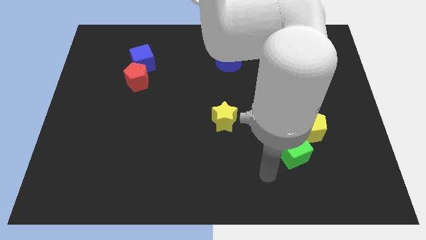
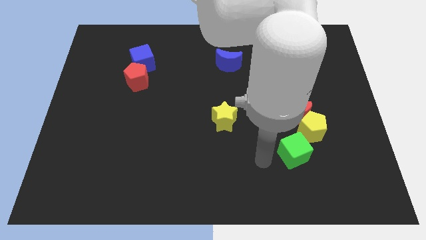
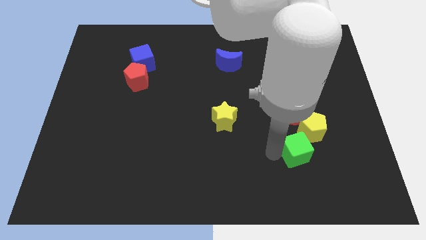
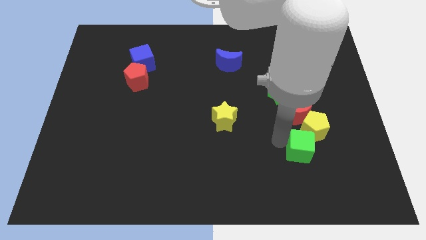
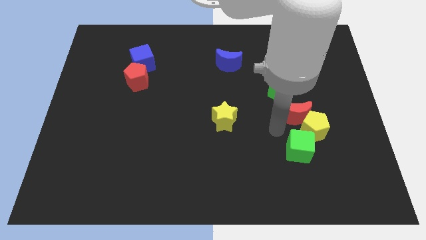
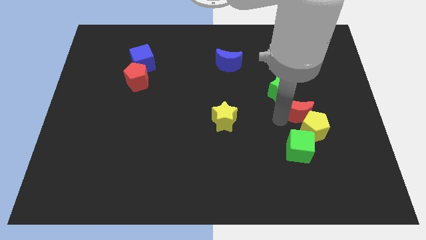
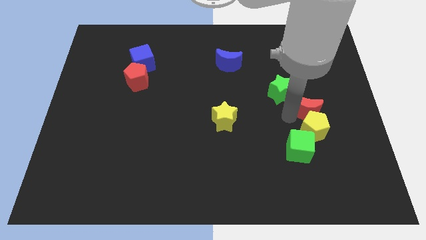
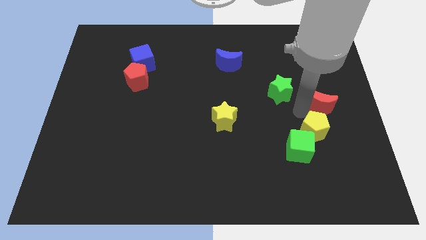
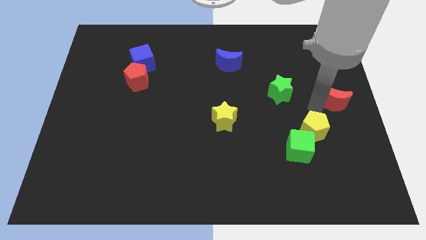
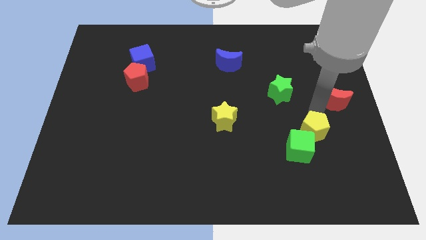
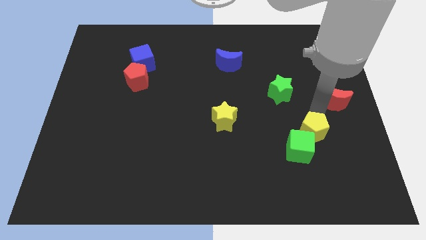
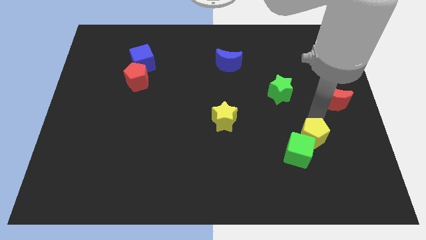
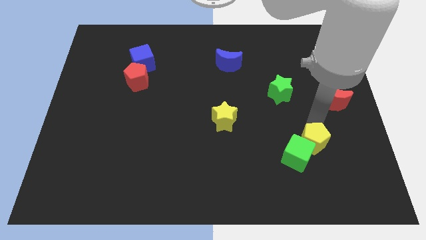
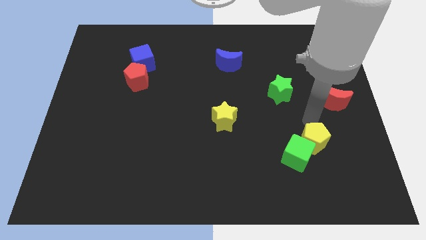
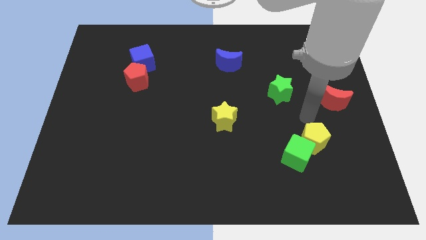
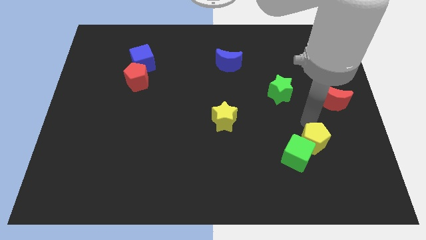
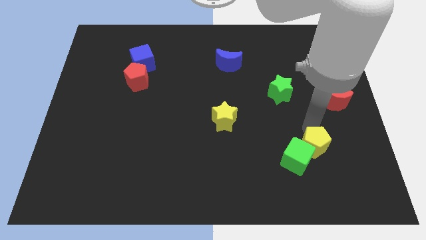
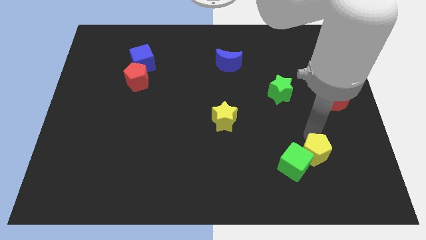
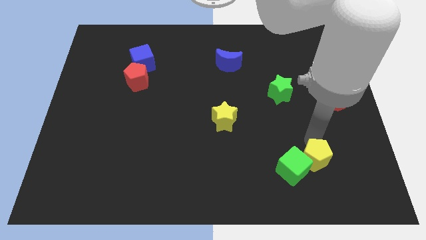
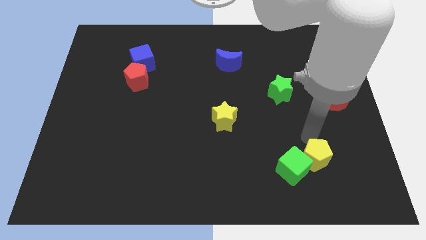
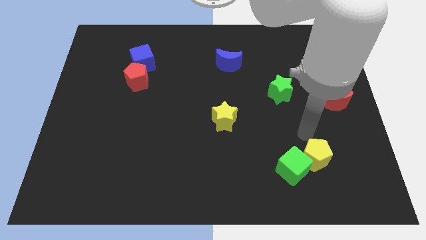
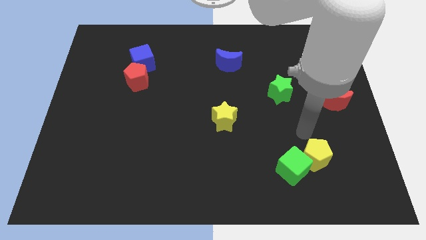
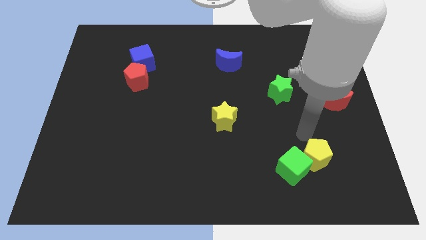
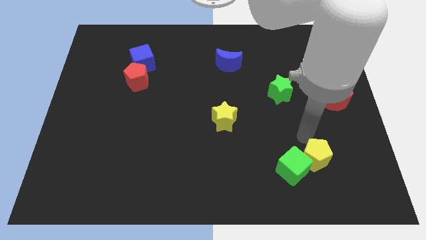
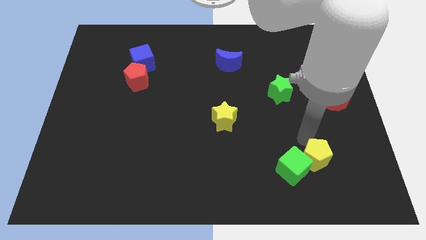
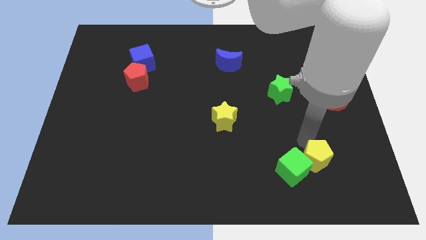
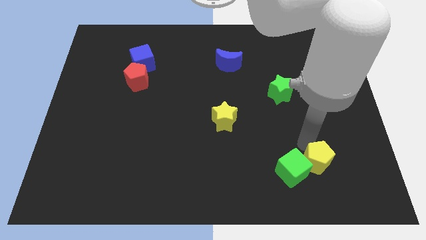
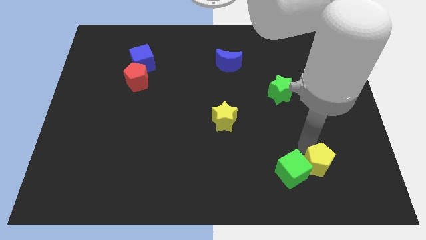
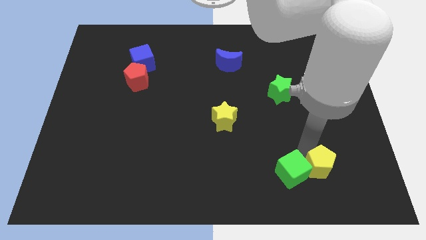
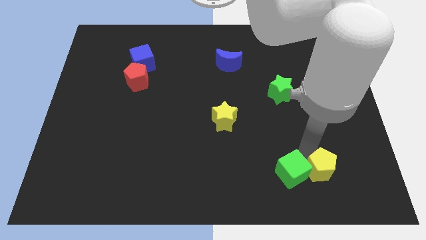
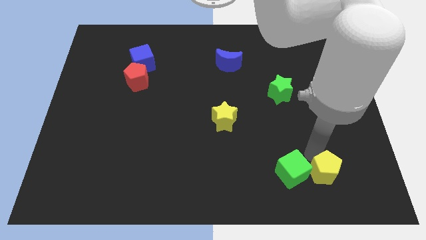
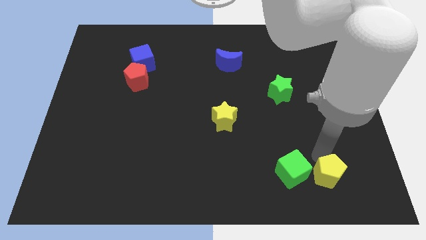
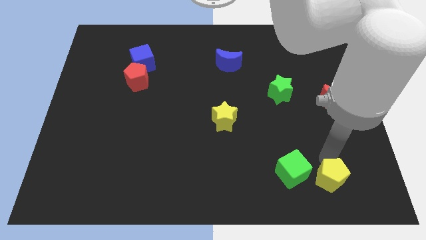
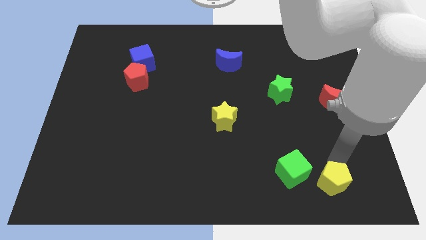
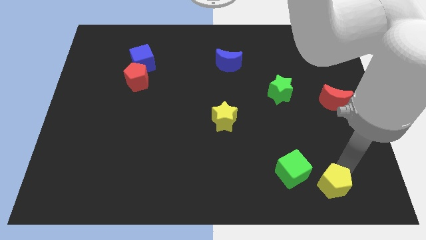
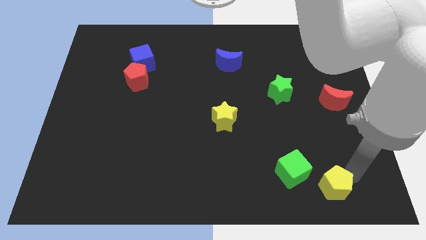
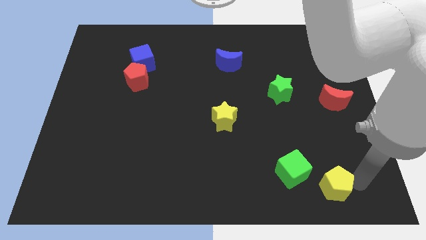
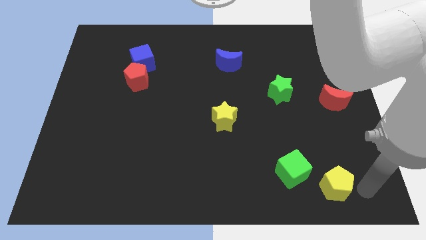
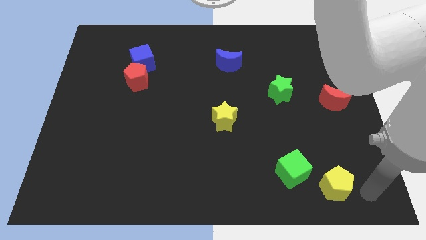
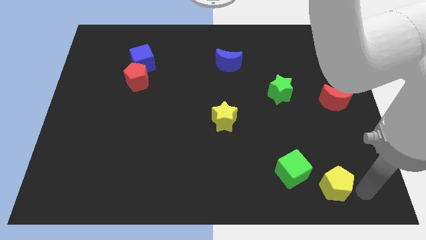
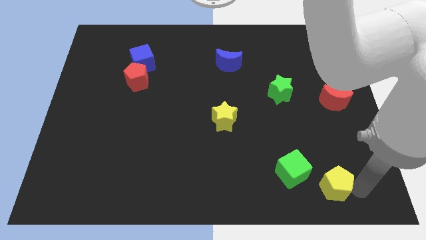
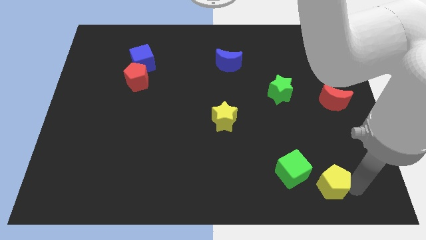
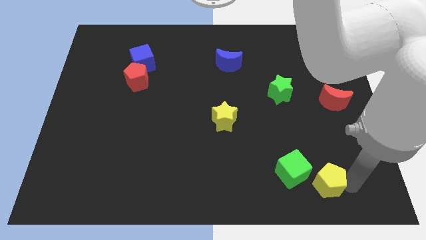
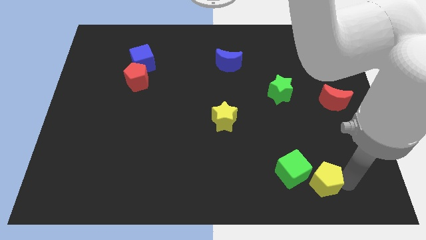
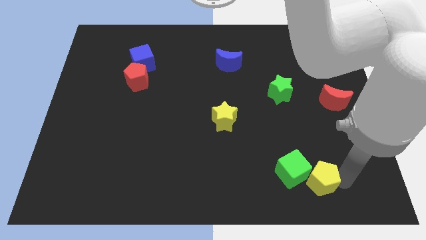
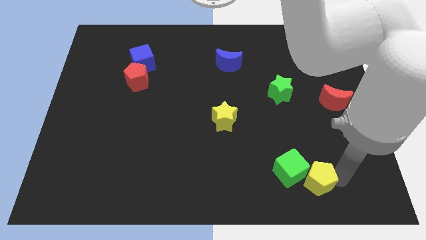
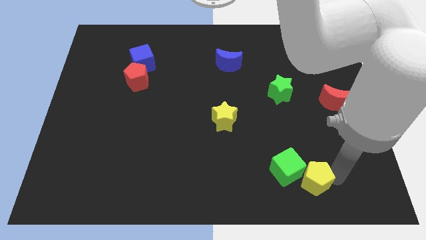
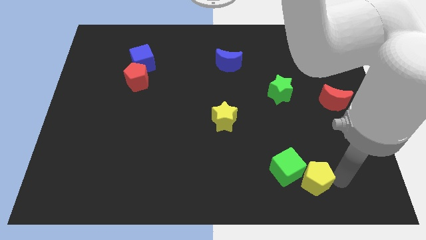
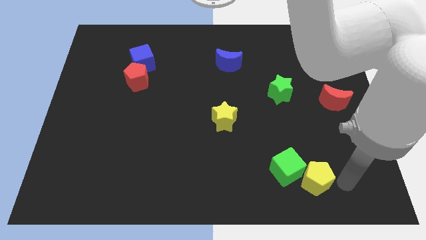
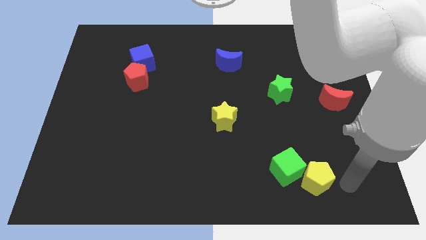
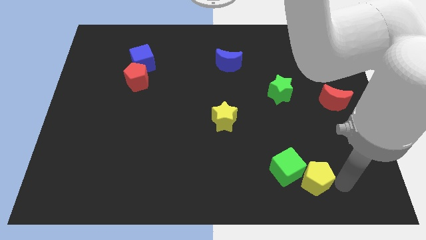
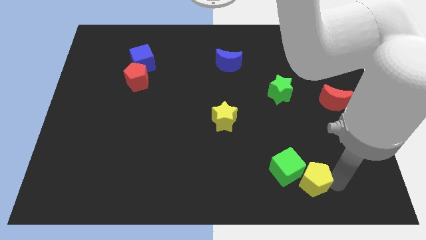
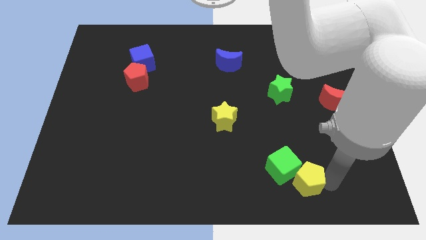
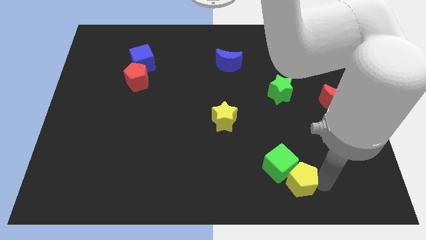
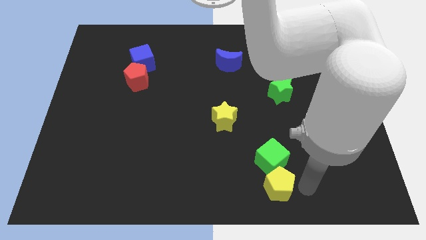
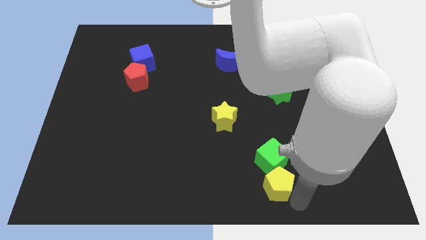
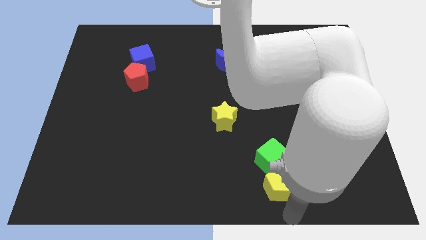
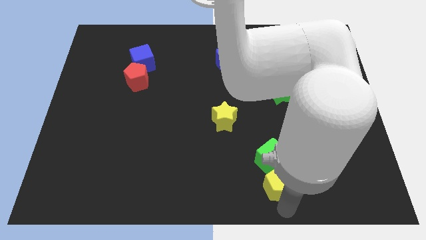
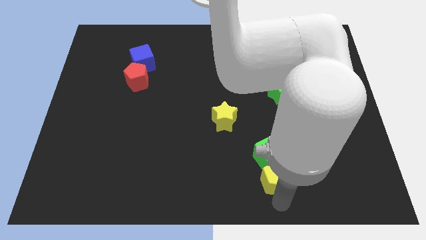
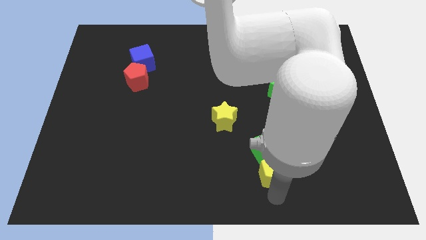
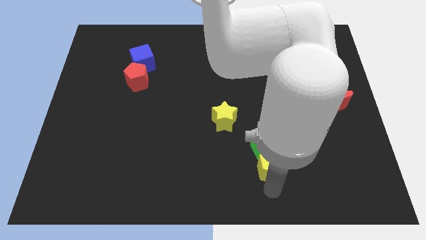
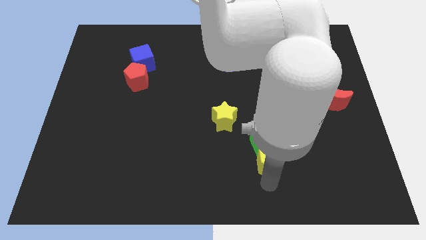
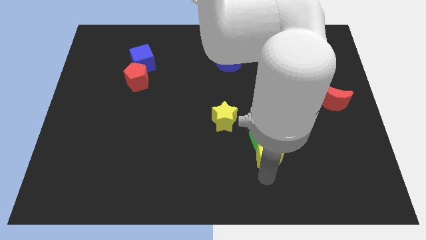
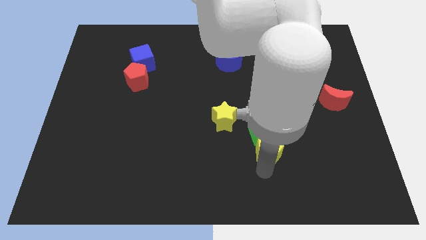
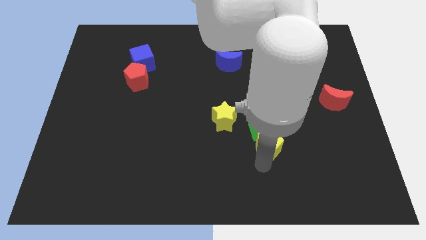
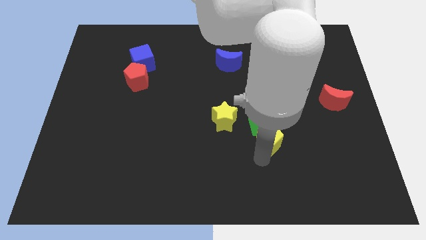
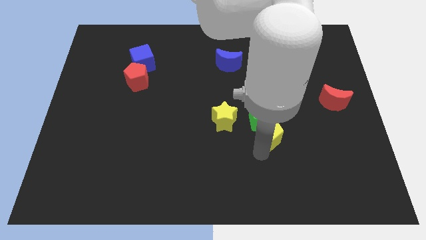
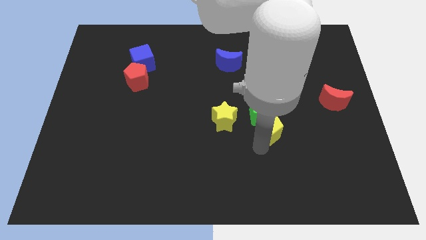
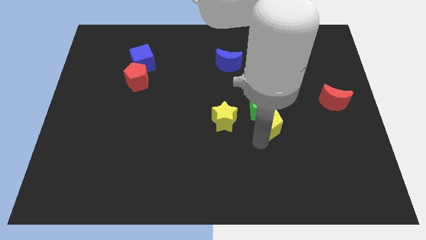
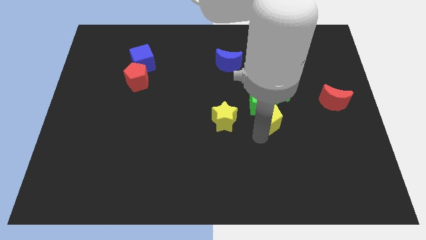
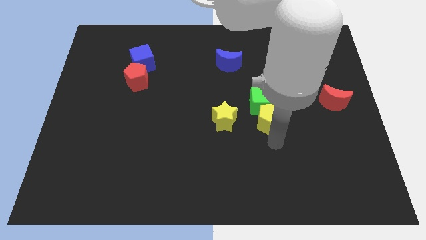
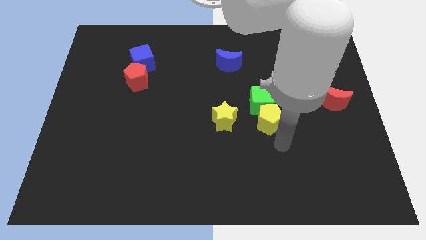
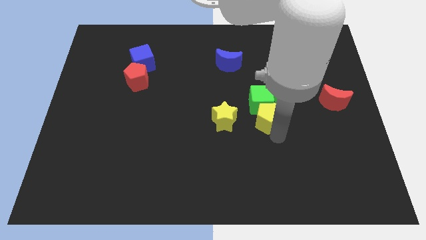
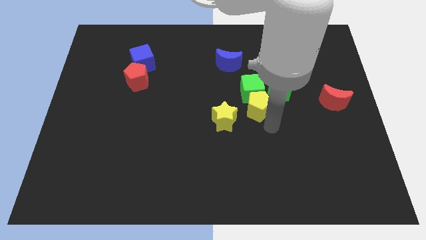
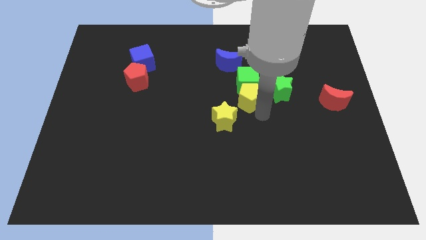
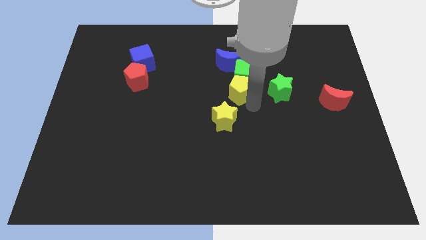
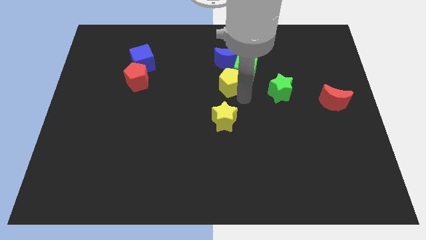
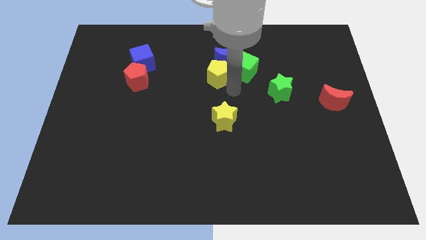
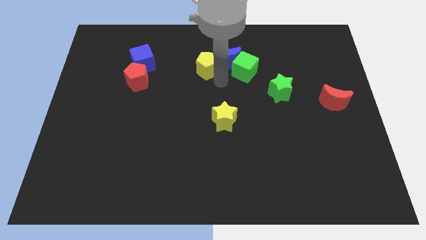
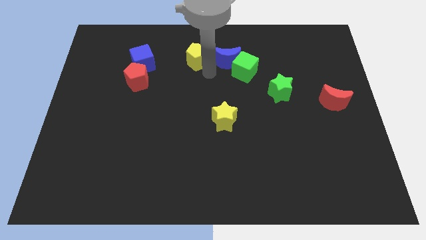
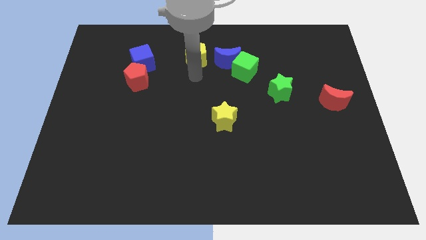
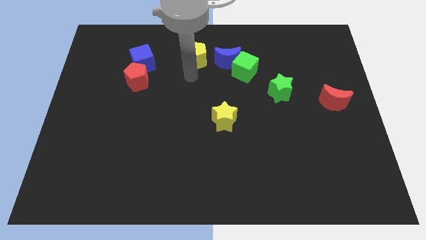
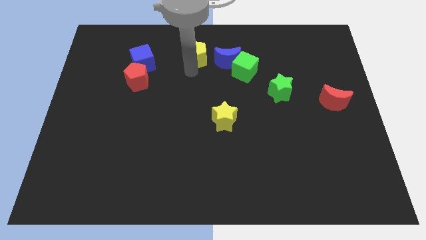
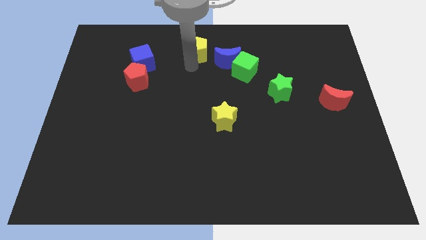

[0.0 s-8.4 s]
push the yellow pentagon to the towards your base
